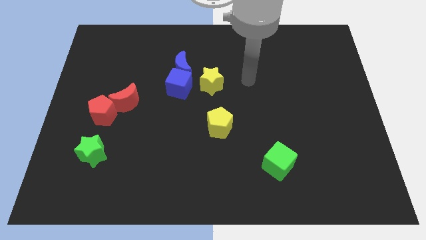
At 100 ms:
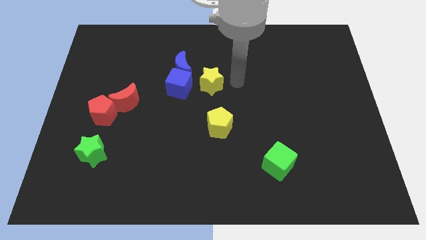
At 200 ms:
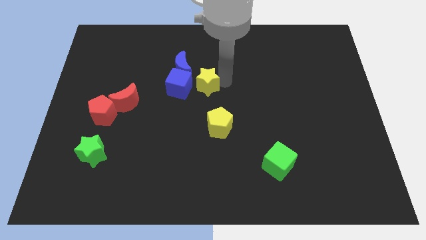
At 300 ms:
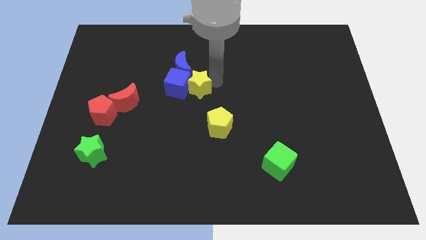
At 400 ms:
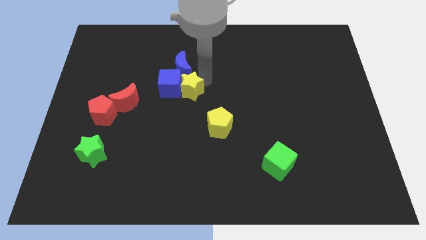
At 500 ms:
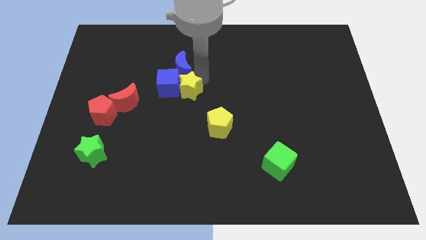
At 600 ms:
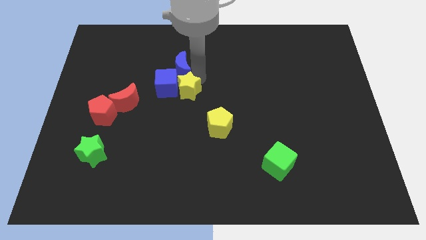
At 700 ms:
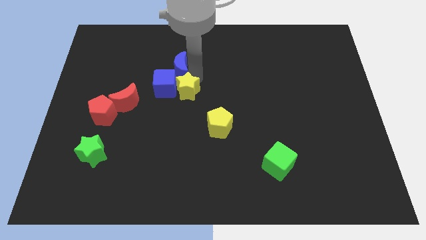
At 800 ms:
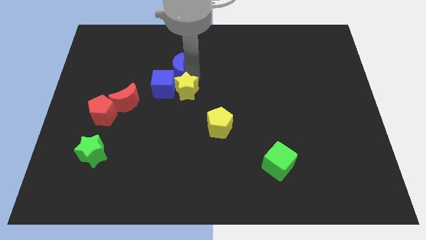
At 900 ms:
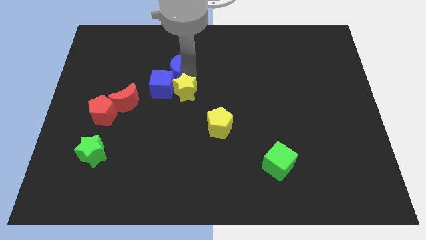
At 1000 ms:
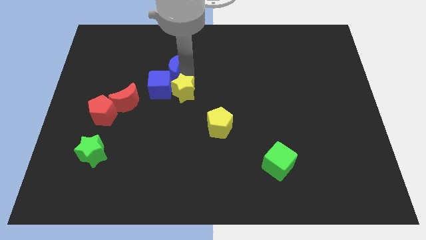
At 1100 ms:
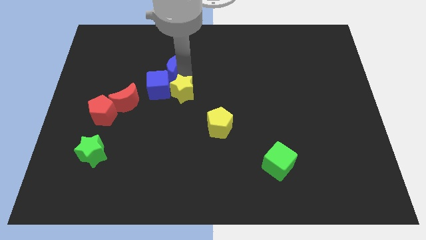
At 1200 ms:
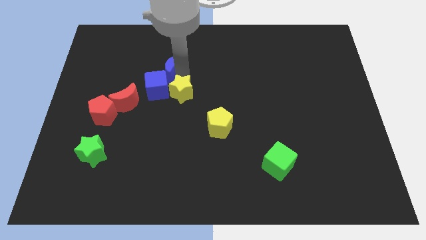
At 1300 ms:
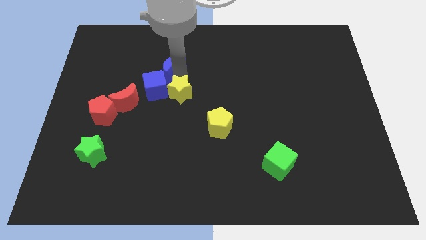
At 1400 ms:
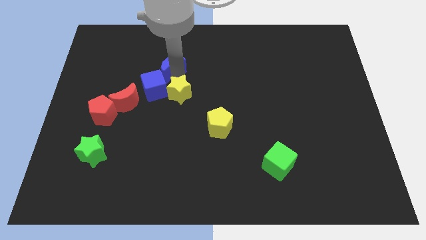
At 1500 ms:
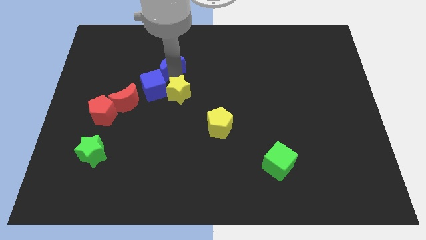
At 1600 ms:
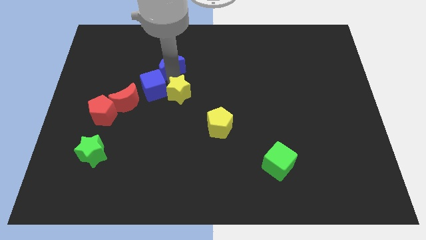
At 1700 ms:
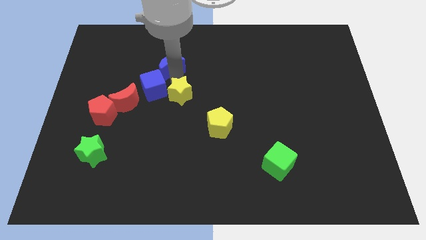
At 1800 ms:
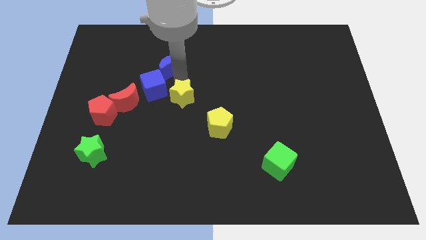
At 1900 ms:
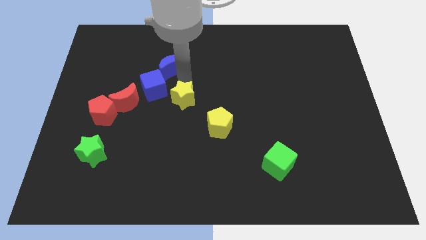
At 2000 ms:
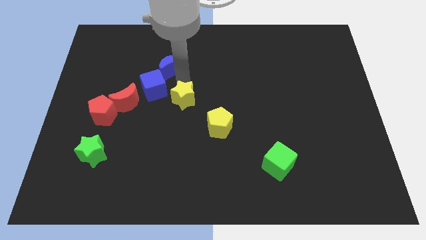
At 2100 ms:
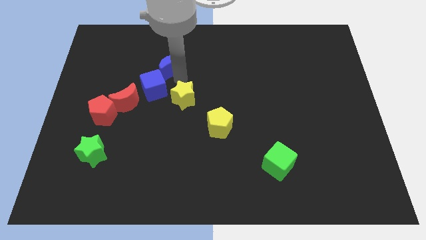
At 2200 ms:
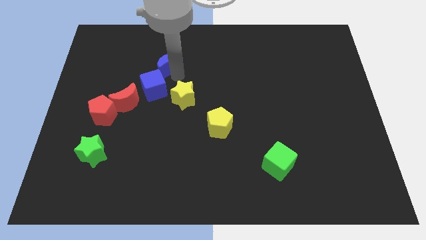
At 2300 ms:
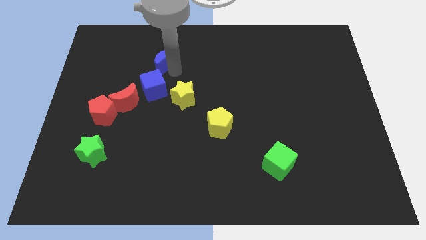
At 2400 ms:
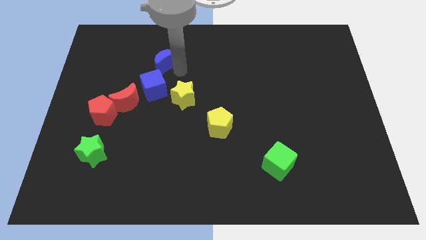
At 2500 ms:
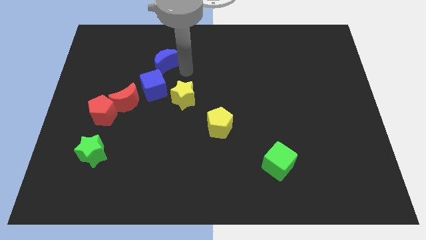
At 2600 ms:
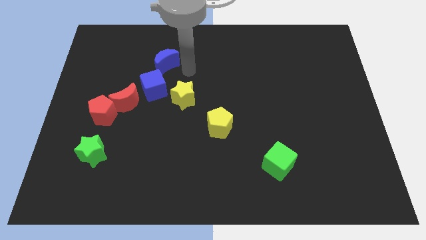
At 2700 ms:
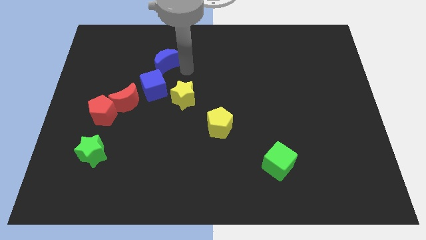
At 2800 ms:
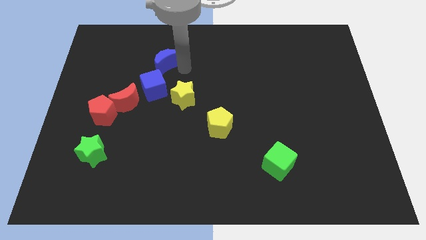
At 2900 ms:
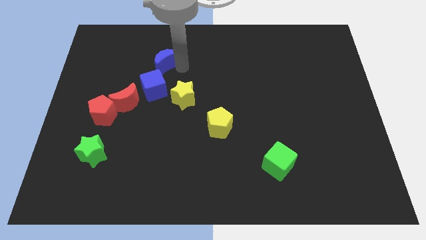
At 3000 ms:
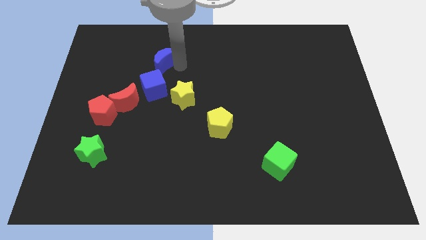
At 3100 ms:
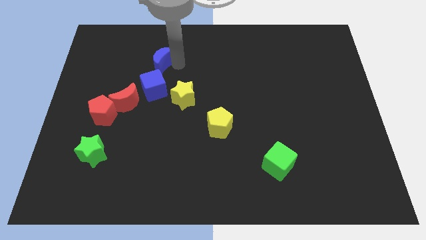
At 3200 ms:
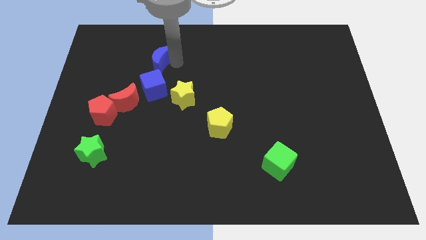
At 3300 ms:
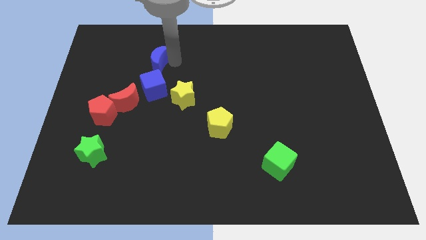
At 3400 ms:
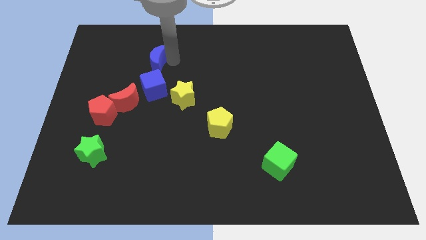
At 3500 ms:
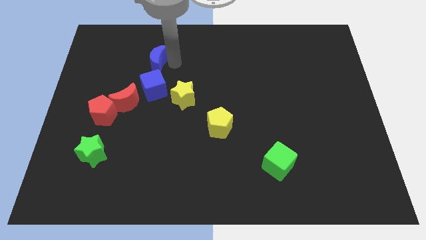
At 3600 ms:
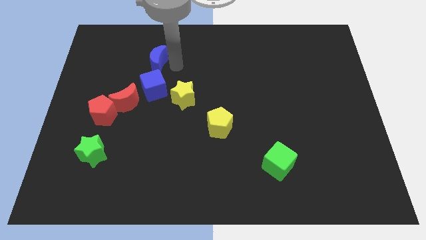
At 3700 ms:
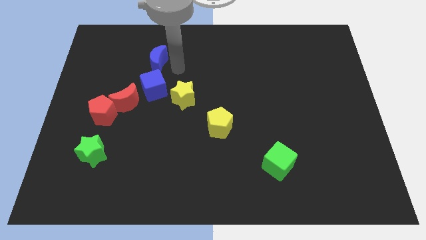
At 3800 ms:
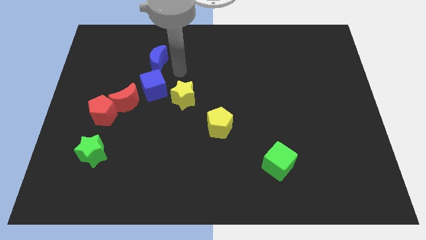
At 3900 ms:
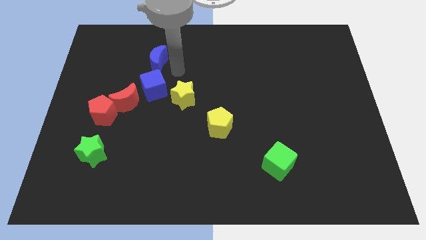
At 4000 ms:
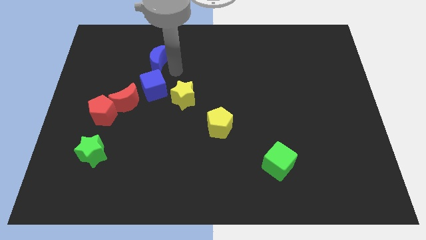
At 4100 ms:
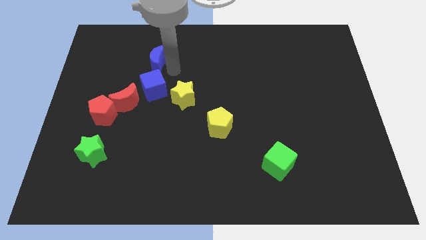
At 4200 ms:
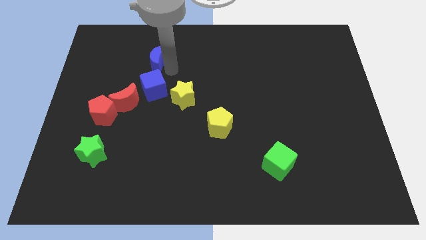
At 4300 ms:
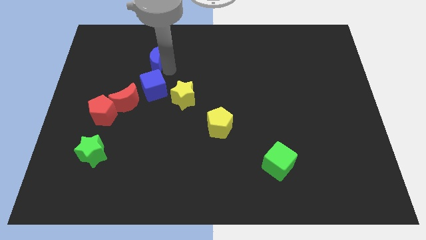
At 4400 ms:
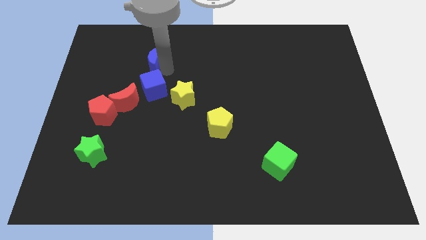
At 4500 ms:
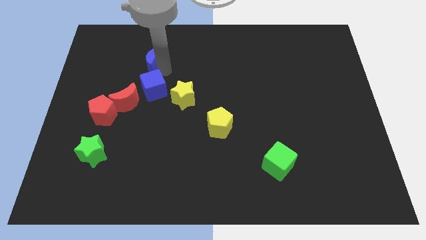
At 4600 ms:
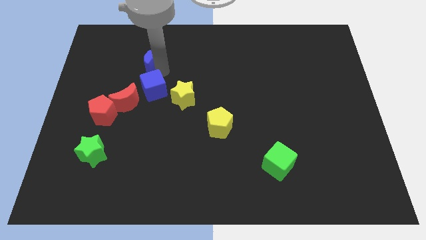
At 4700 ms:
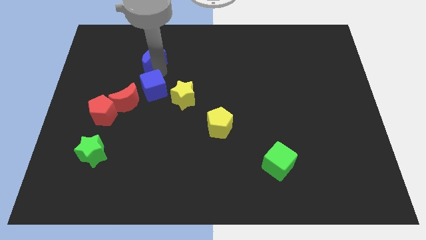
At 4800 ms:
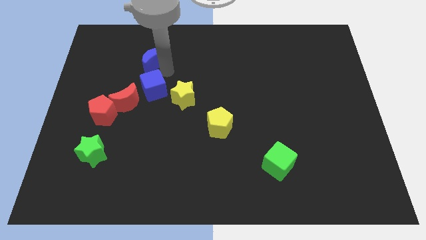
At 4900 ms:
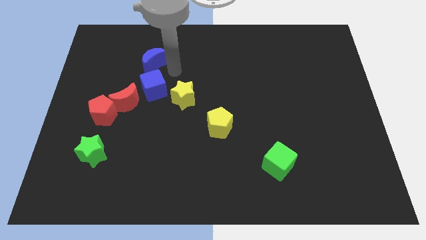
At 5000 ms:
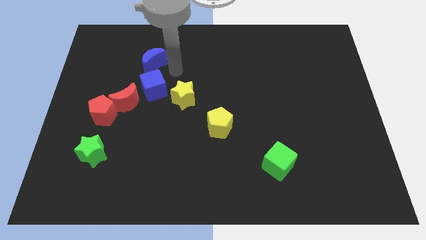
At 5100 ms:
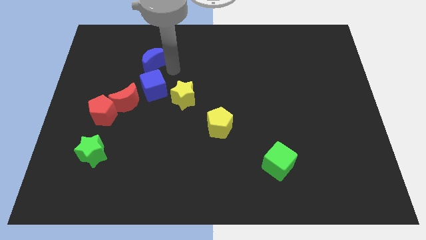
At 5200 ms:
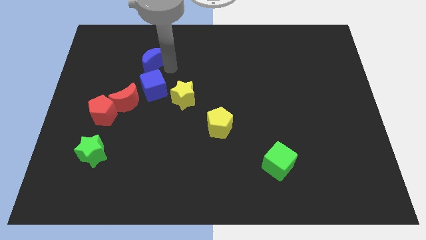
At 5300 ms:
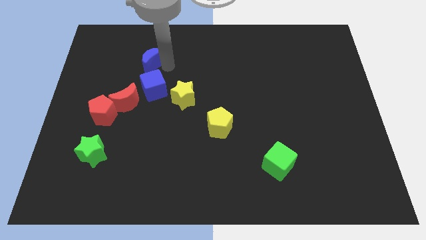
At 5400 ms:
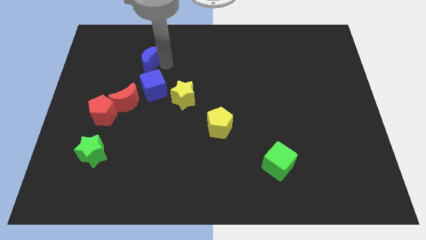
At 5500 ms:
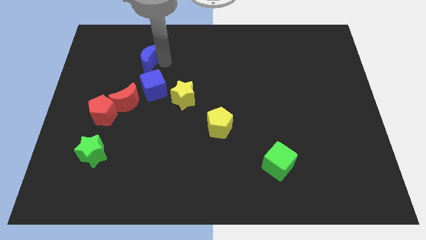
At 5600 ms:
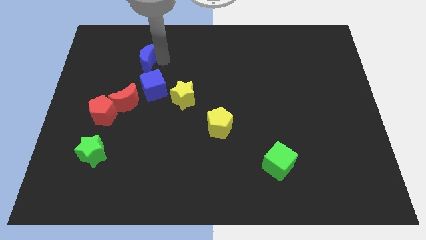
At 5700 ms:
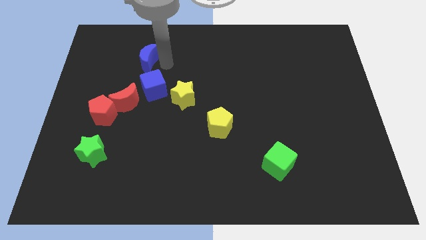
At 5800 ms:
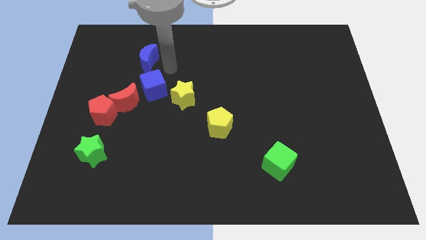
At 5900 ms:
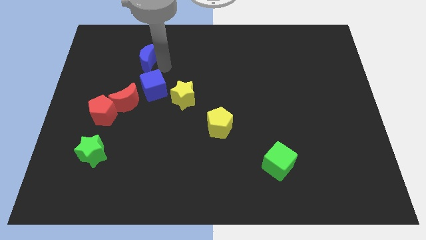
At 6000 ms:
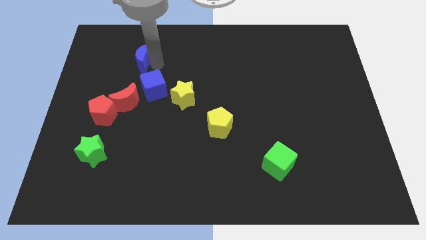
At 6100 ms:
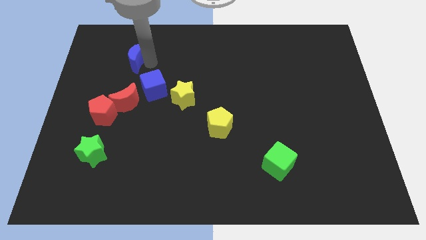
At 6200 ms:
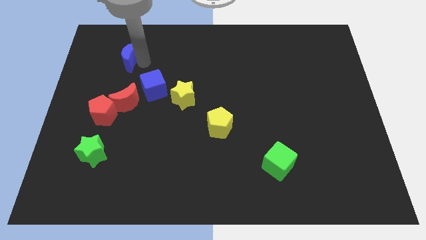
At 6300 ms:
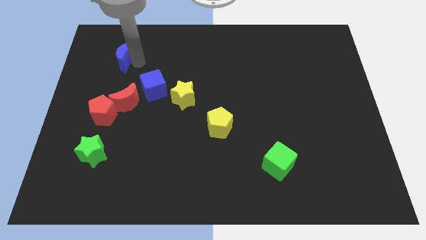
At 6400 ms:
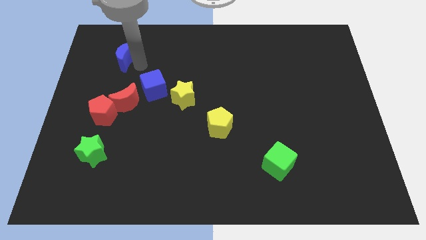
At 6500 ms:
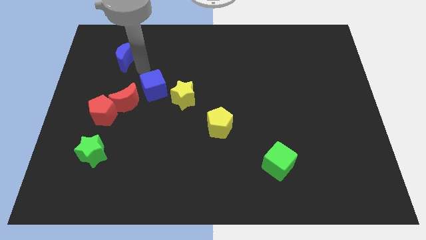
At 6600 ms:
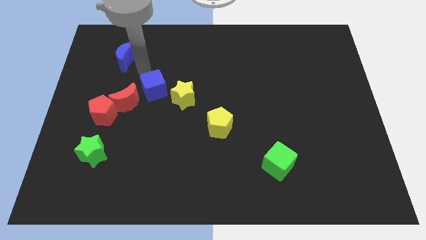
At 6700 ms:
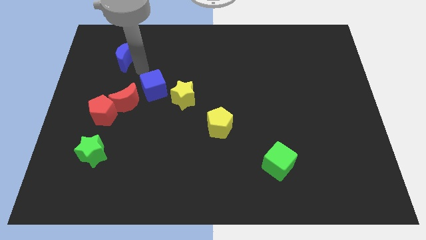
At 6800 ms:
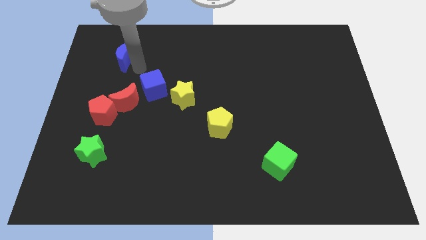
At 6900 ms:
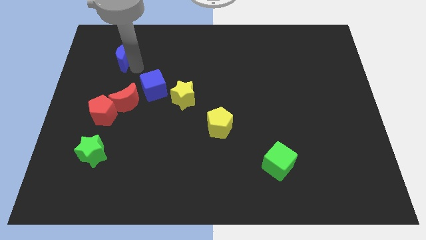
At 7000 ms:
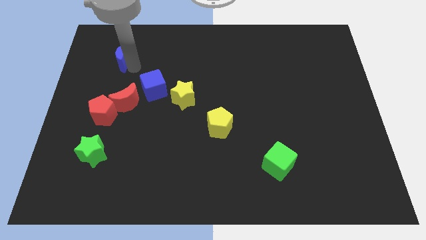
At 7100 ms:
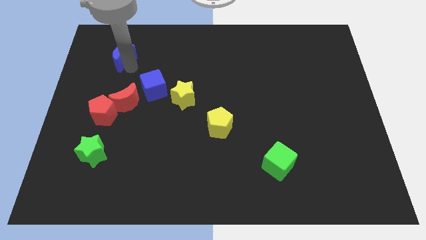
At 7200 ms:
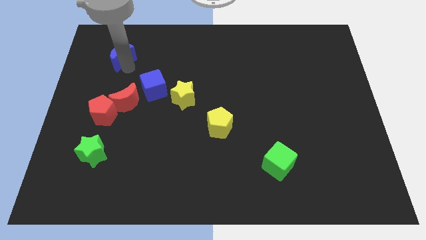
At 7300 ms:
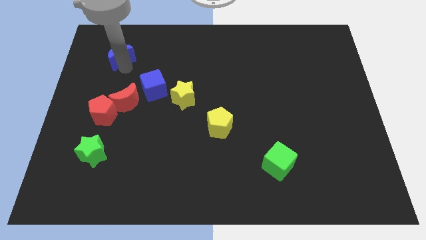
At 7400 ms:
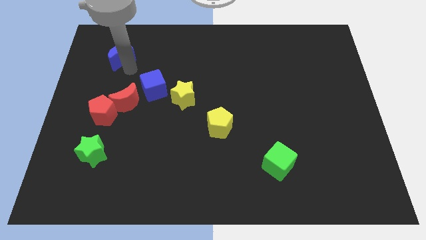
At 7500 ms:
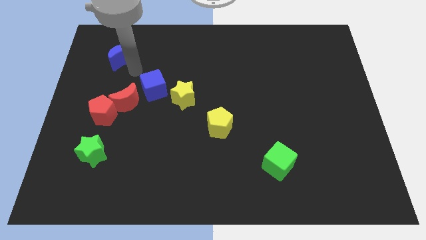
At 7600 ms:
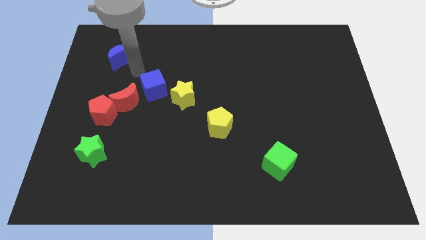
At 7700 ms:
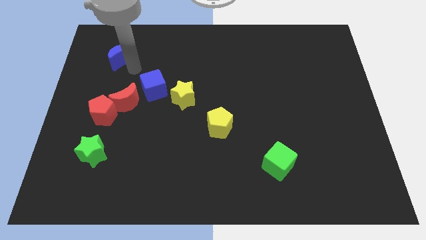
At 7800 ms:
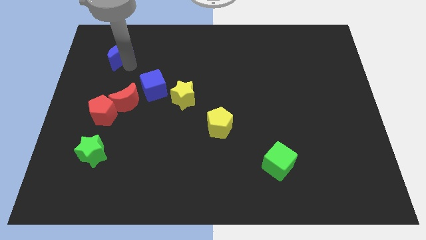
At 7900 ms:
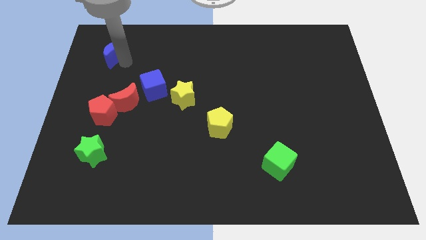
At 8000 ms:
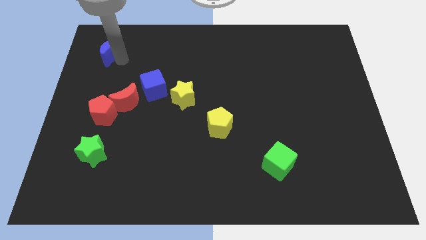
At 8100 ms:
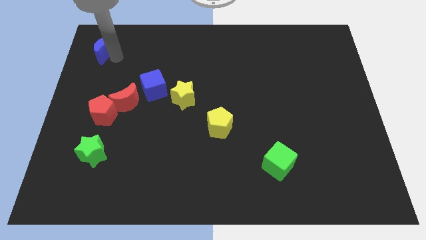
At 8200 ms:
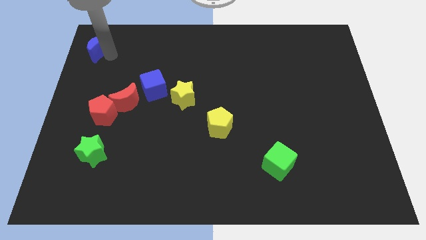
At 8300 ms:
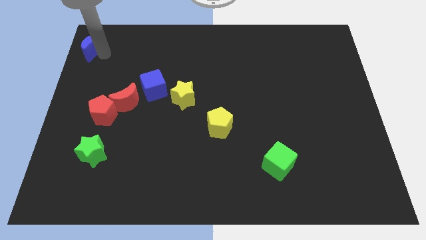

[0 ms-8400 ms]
push the blue moon to the top left corner
